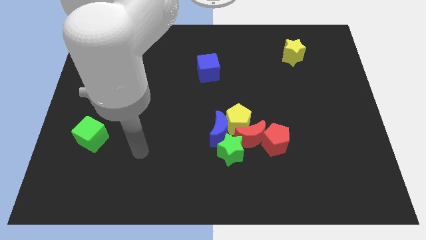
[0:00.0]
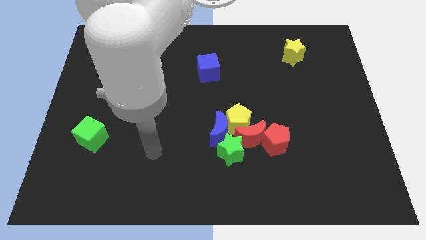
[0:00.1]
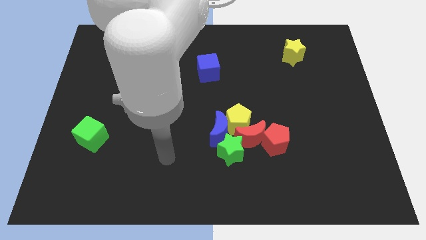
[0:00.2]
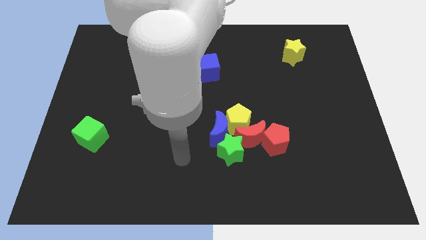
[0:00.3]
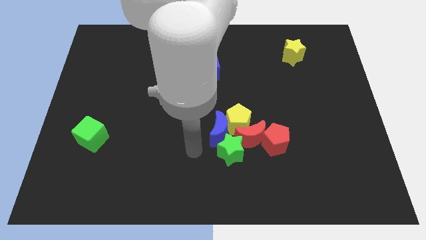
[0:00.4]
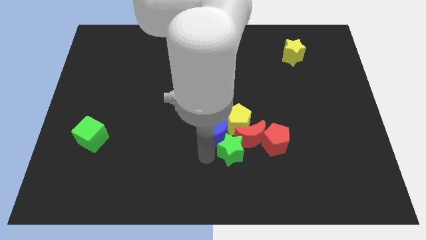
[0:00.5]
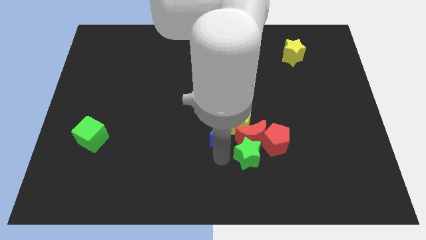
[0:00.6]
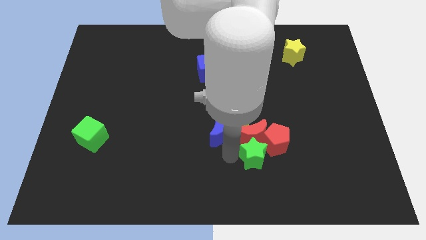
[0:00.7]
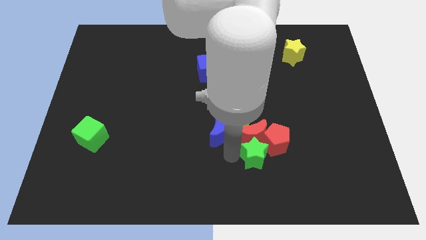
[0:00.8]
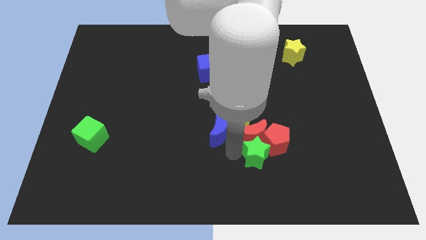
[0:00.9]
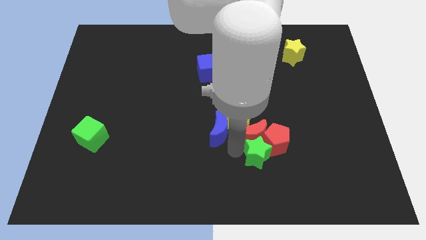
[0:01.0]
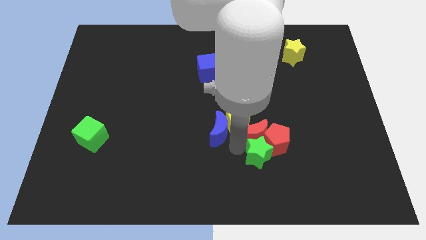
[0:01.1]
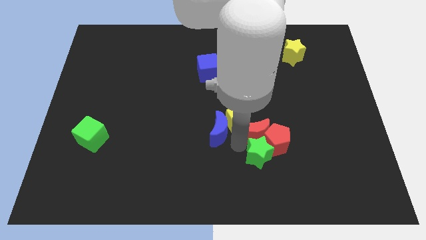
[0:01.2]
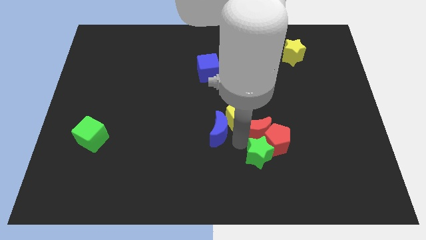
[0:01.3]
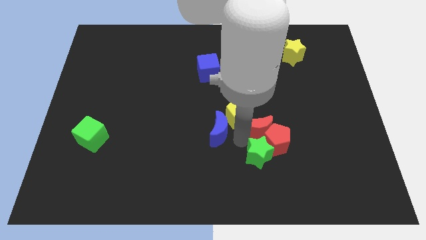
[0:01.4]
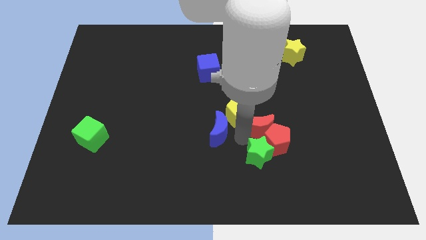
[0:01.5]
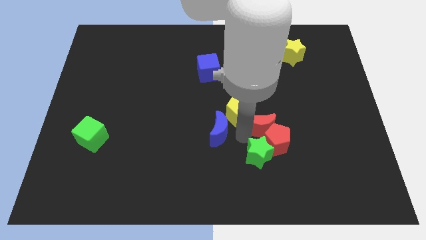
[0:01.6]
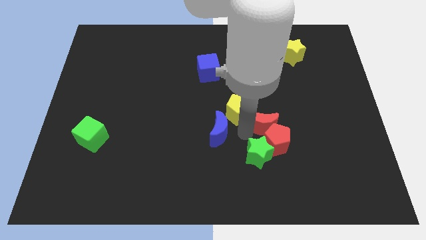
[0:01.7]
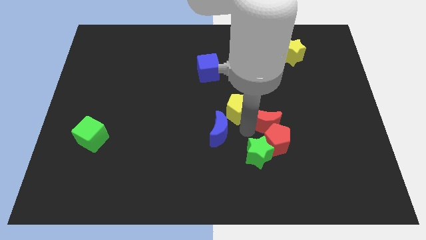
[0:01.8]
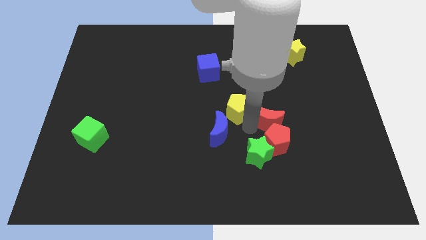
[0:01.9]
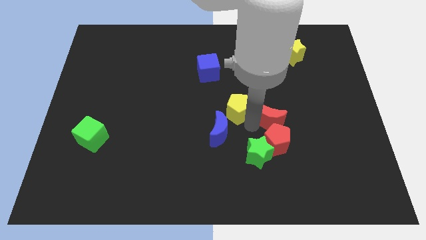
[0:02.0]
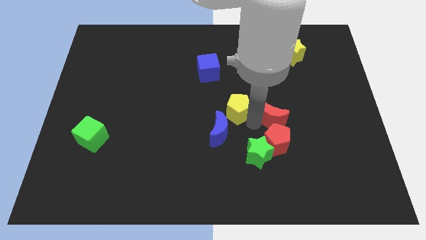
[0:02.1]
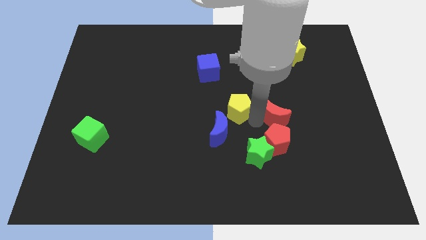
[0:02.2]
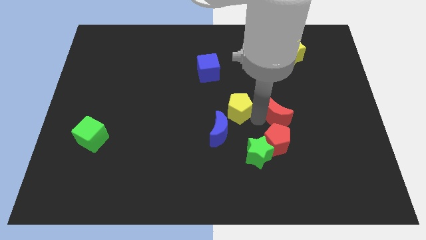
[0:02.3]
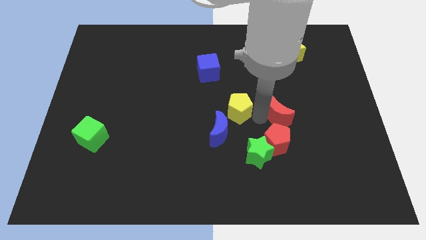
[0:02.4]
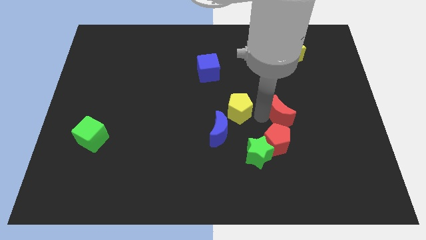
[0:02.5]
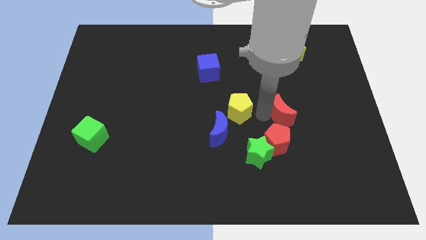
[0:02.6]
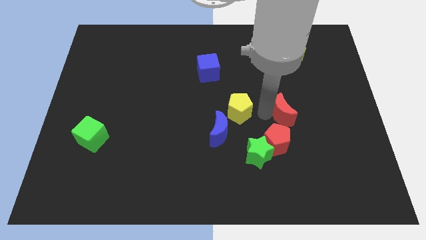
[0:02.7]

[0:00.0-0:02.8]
move the red moon away from the group

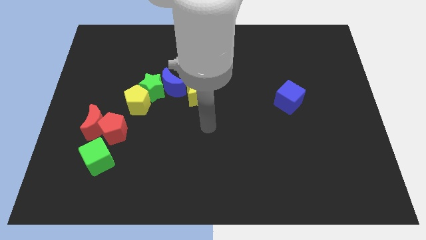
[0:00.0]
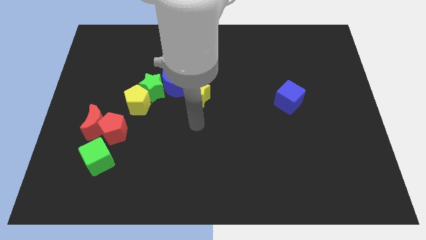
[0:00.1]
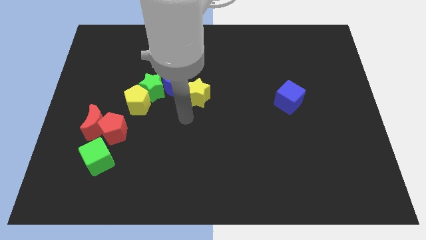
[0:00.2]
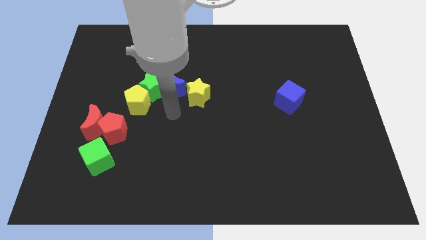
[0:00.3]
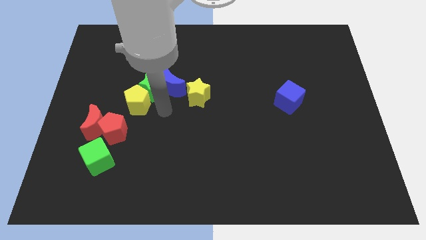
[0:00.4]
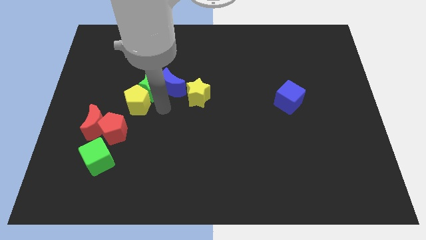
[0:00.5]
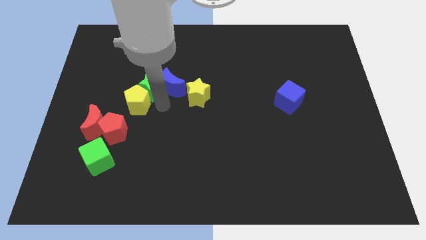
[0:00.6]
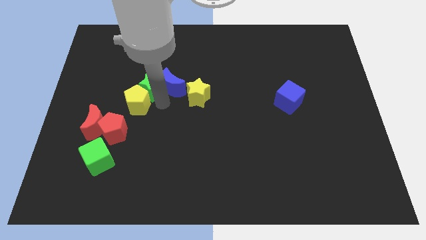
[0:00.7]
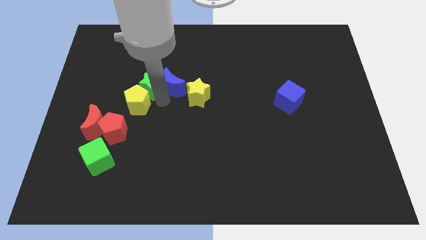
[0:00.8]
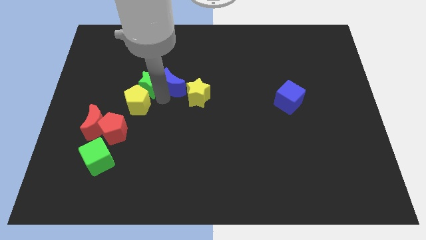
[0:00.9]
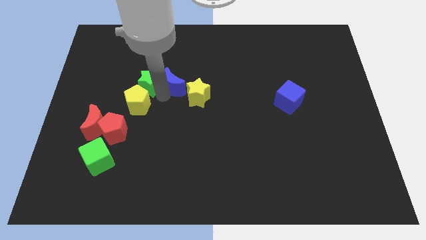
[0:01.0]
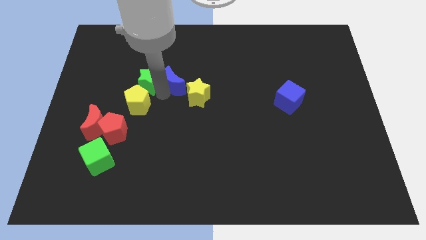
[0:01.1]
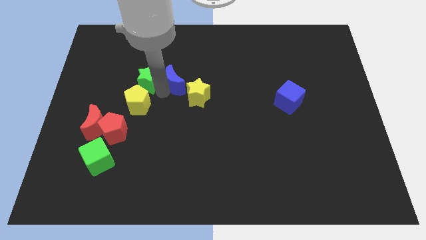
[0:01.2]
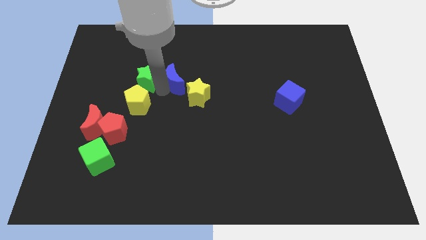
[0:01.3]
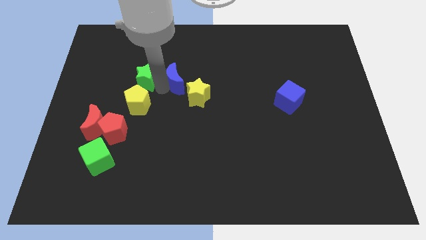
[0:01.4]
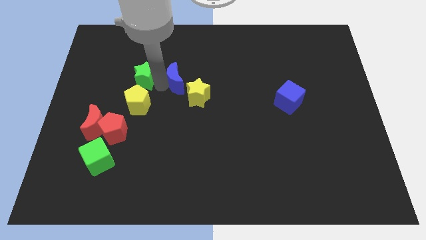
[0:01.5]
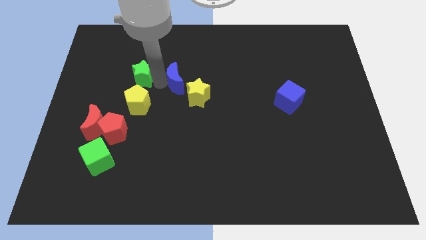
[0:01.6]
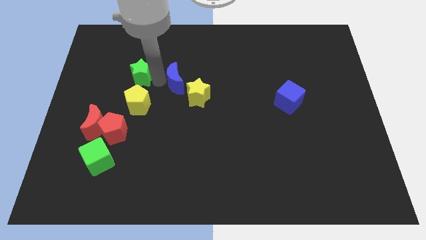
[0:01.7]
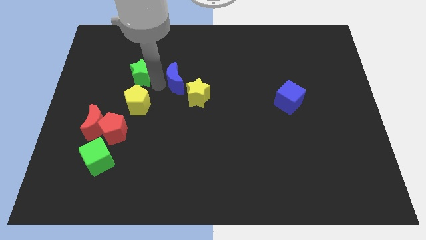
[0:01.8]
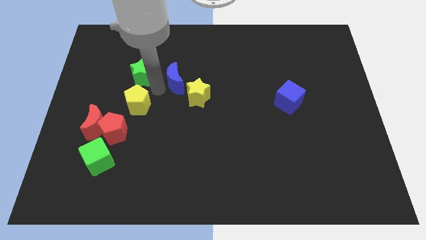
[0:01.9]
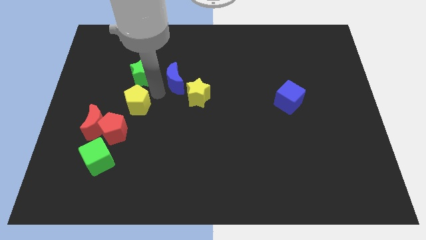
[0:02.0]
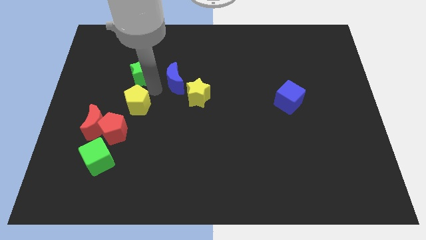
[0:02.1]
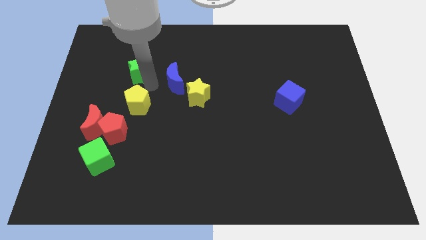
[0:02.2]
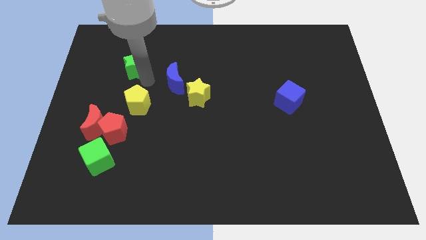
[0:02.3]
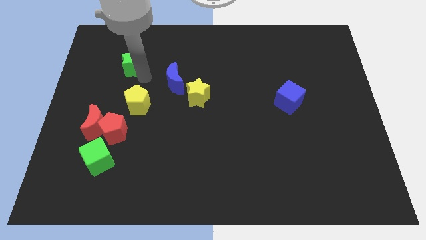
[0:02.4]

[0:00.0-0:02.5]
pull the green star apart from the blue moon and yellow pentagon

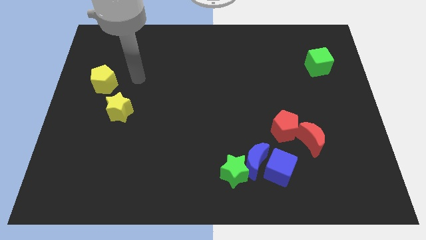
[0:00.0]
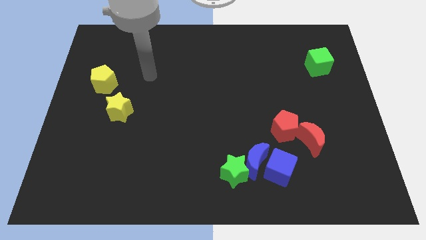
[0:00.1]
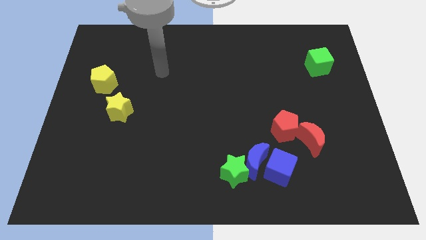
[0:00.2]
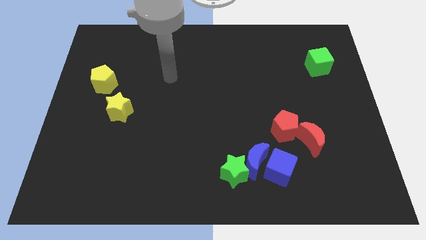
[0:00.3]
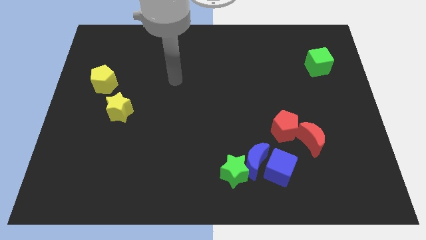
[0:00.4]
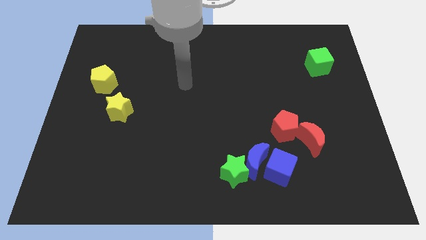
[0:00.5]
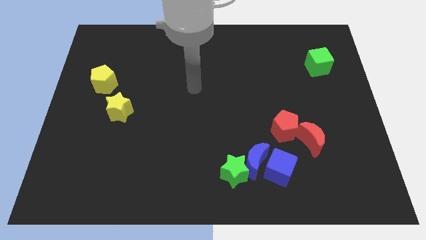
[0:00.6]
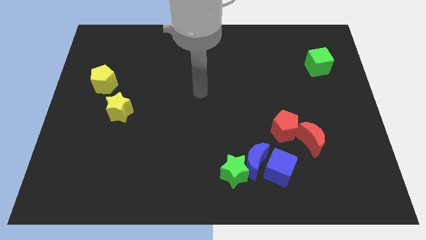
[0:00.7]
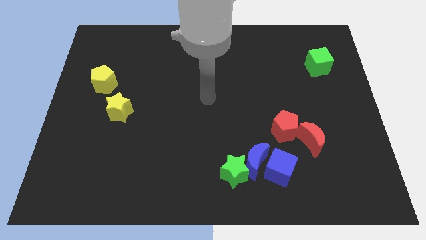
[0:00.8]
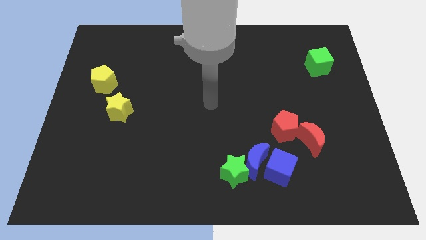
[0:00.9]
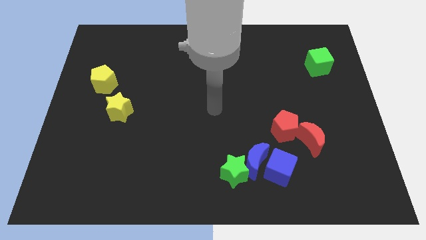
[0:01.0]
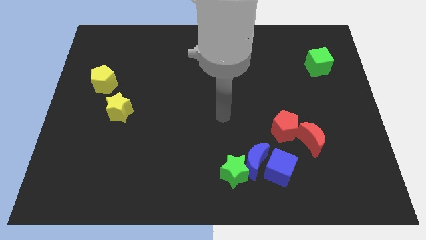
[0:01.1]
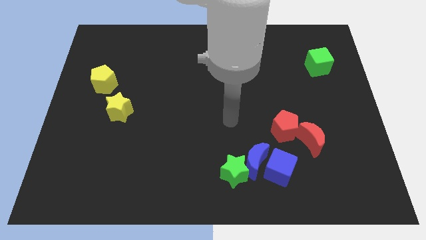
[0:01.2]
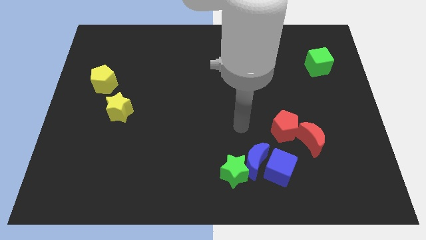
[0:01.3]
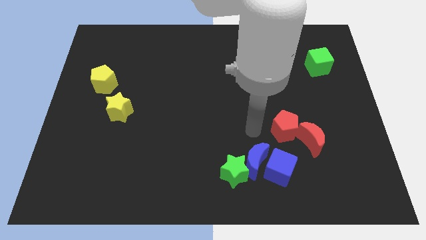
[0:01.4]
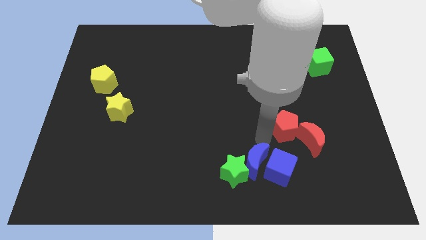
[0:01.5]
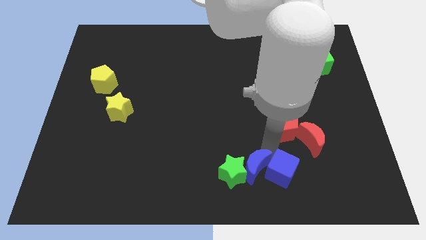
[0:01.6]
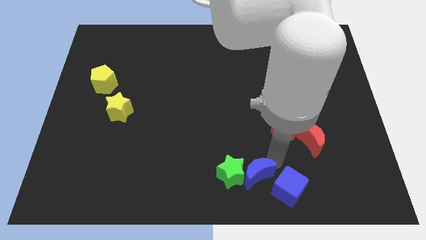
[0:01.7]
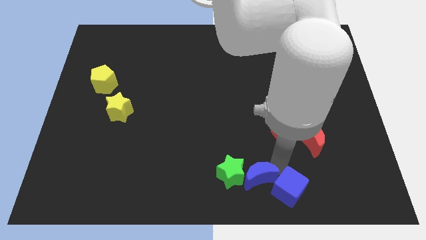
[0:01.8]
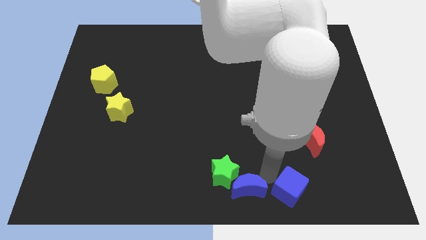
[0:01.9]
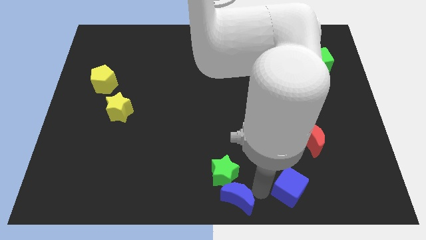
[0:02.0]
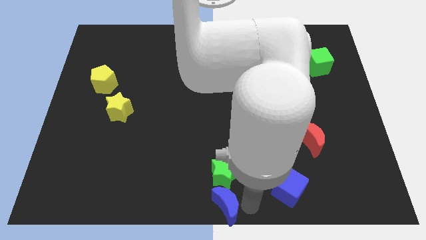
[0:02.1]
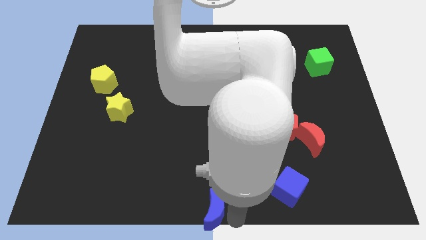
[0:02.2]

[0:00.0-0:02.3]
separate the blue moon from the green star and blue cube

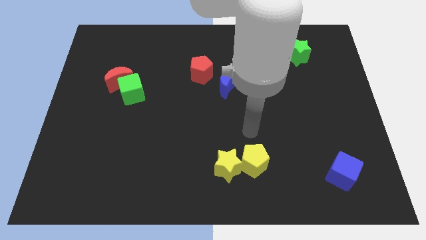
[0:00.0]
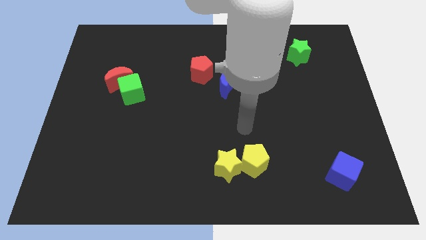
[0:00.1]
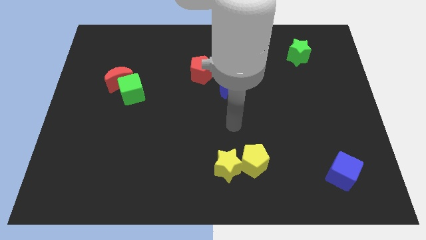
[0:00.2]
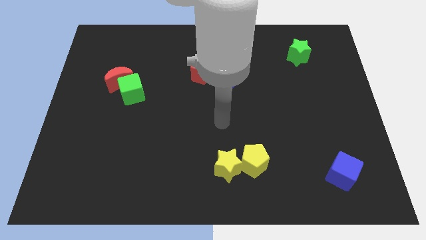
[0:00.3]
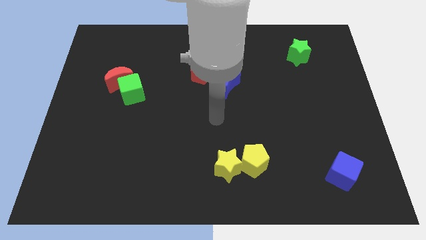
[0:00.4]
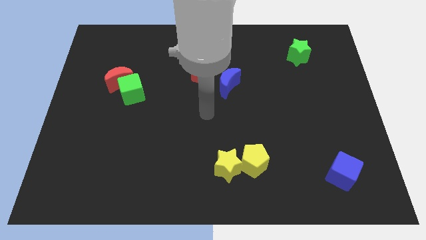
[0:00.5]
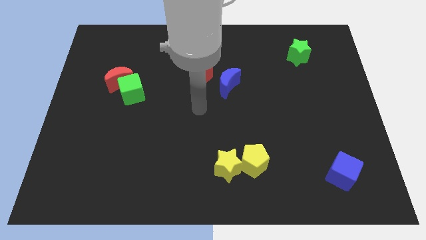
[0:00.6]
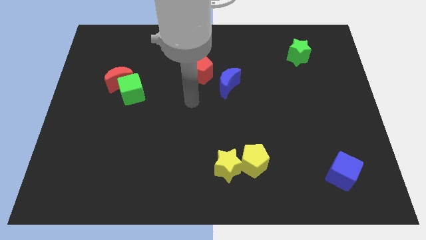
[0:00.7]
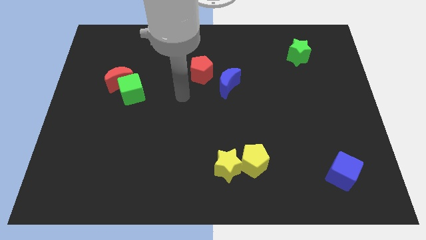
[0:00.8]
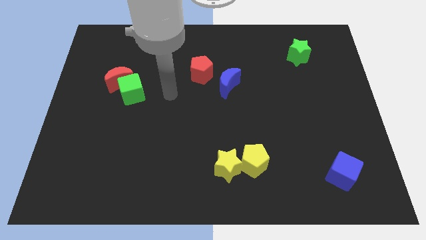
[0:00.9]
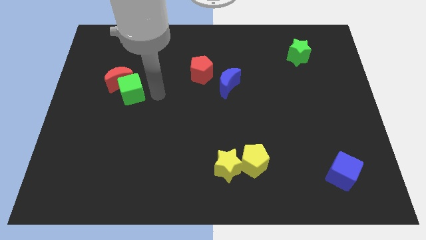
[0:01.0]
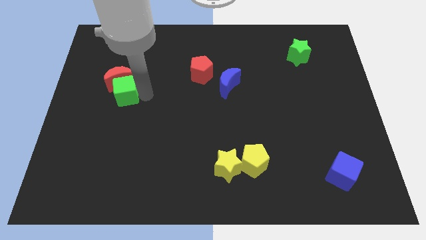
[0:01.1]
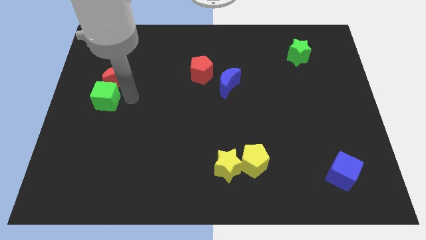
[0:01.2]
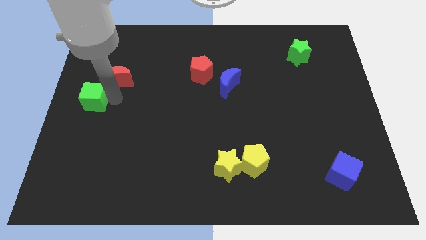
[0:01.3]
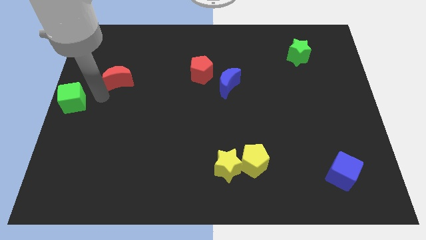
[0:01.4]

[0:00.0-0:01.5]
move the red moon away from the green cube

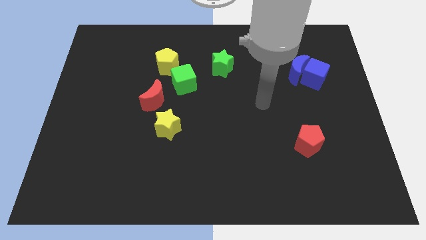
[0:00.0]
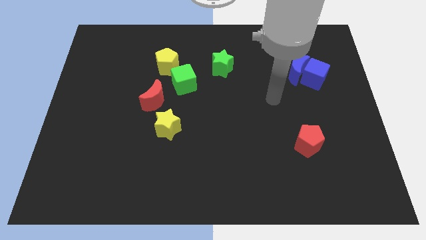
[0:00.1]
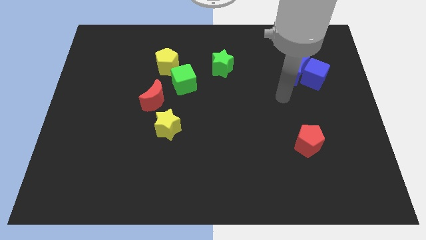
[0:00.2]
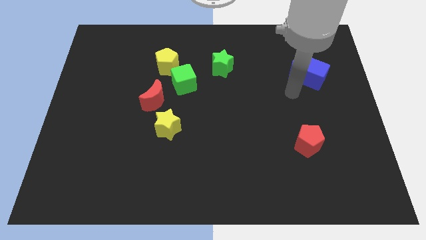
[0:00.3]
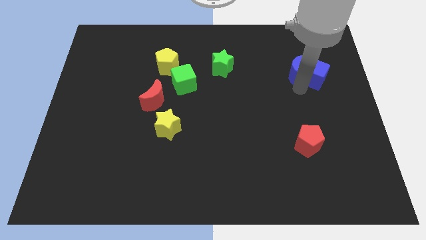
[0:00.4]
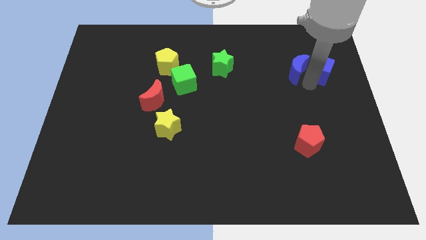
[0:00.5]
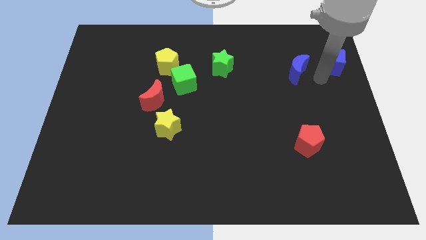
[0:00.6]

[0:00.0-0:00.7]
move the blue moon away from the blue cube
